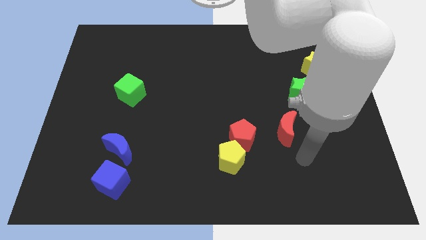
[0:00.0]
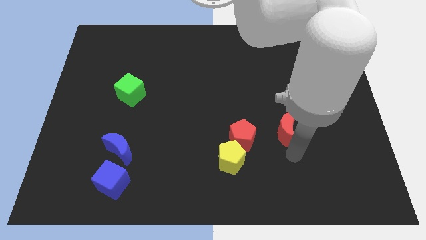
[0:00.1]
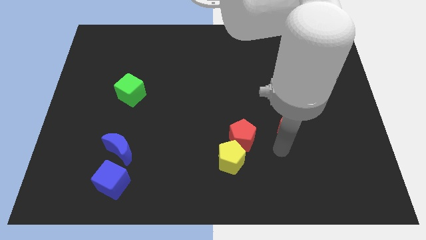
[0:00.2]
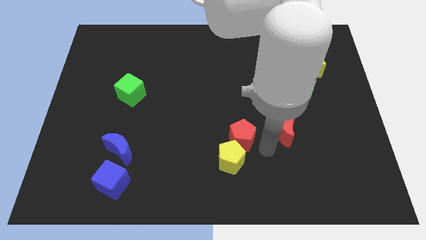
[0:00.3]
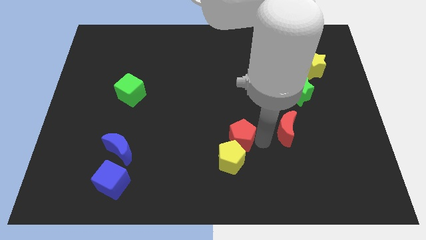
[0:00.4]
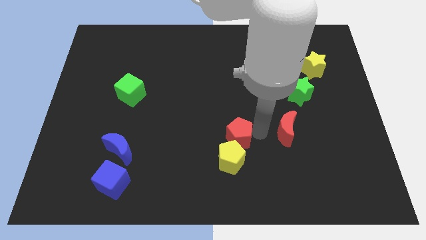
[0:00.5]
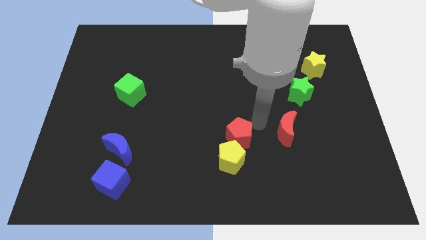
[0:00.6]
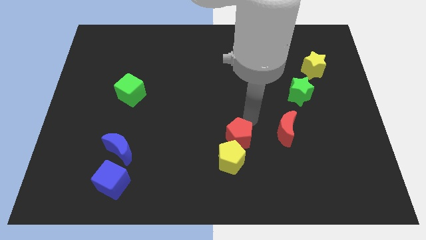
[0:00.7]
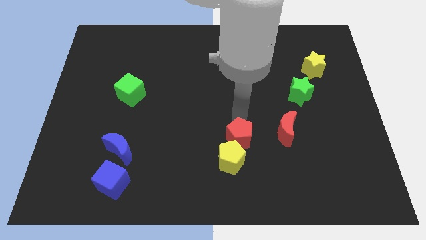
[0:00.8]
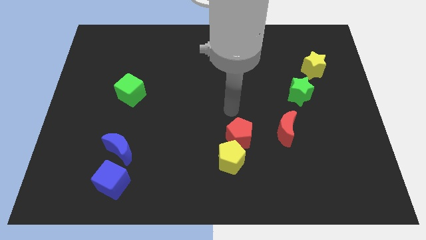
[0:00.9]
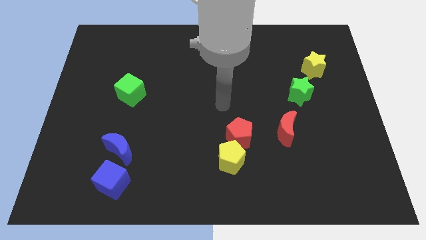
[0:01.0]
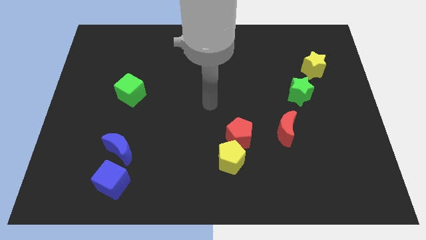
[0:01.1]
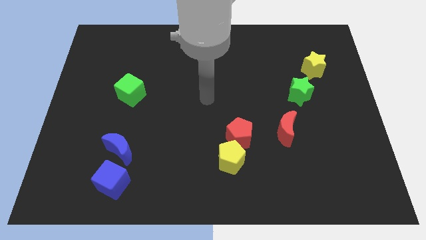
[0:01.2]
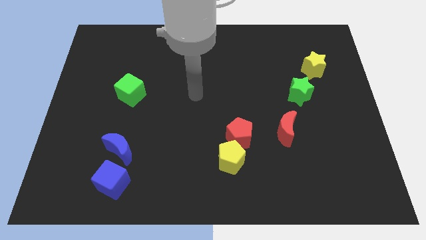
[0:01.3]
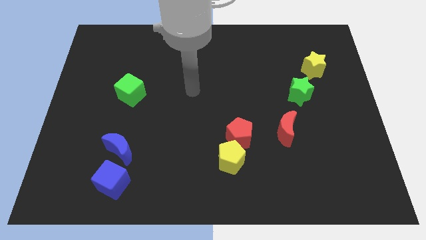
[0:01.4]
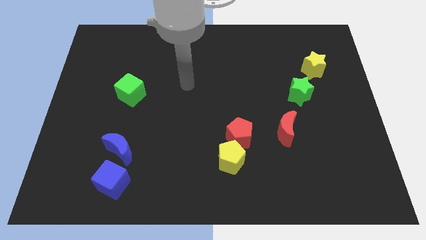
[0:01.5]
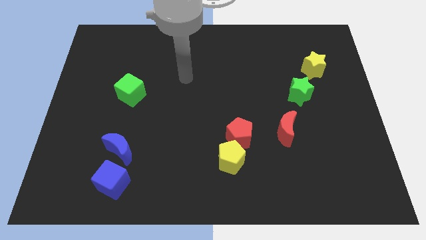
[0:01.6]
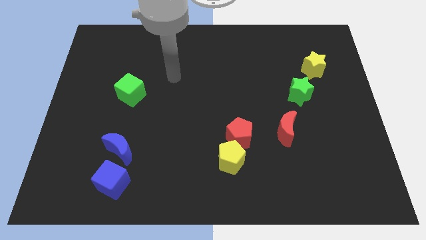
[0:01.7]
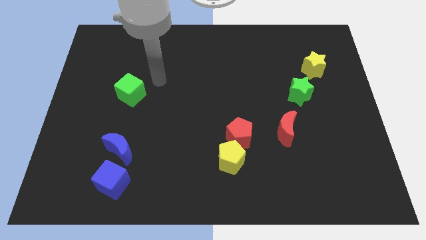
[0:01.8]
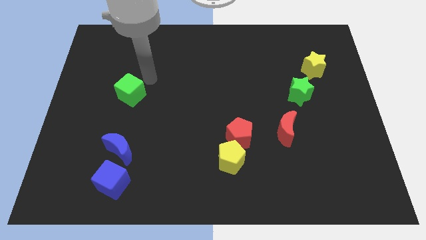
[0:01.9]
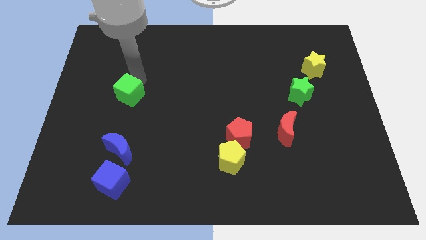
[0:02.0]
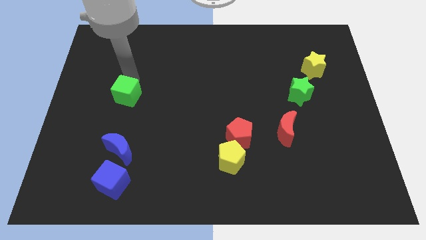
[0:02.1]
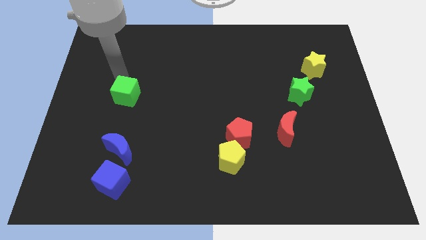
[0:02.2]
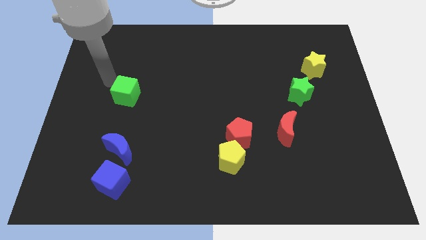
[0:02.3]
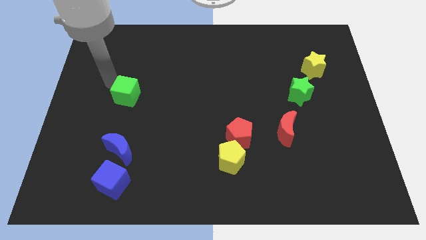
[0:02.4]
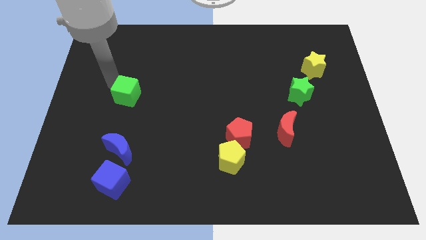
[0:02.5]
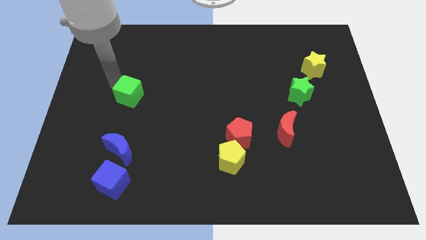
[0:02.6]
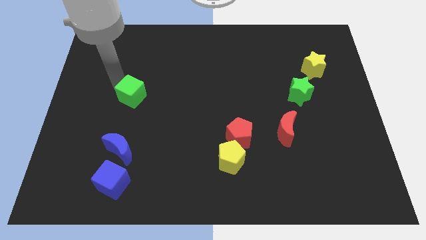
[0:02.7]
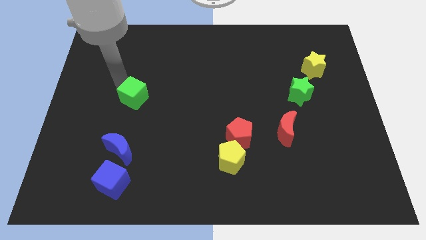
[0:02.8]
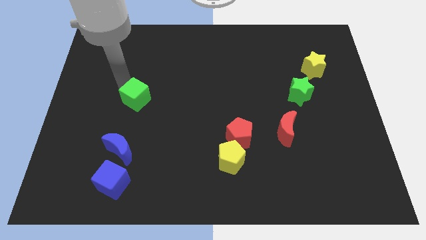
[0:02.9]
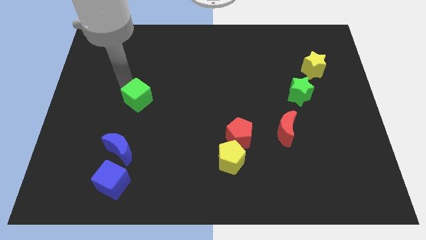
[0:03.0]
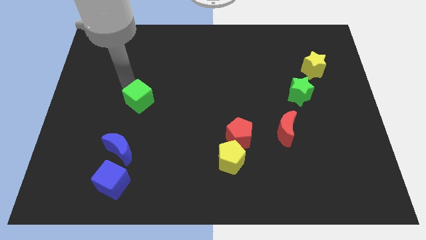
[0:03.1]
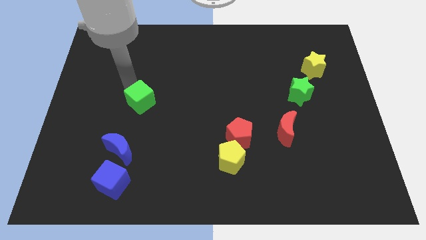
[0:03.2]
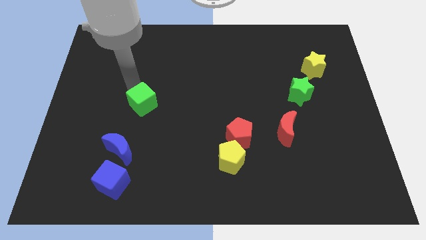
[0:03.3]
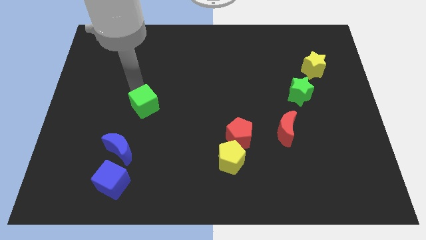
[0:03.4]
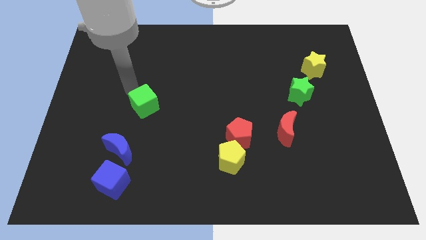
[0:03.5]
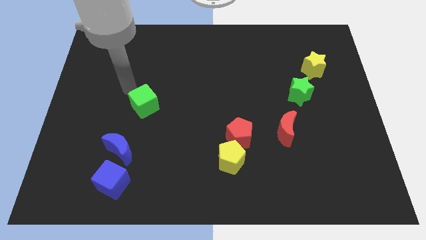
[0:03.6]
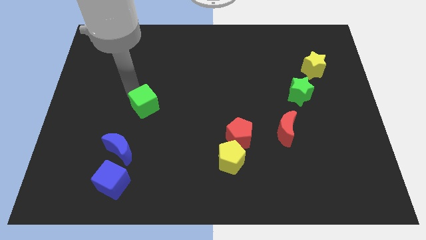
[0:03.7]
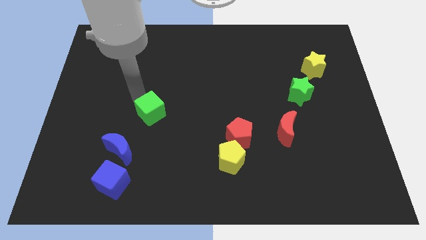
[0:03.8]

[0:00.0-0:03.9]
move the green cube somewhat down and then right

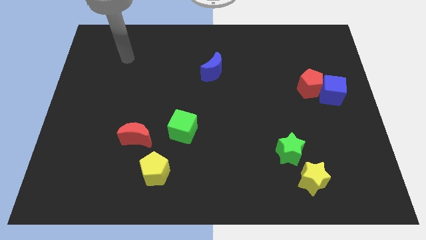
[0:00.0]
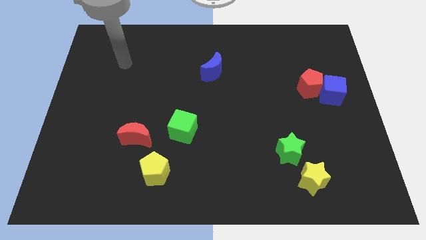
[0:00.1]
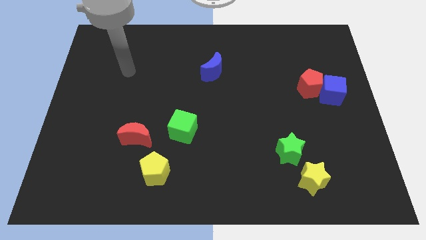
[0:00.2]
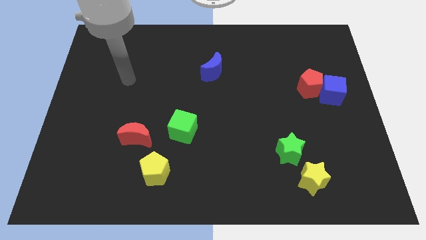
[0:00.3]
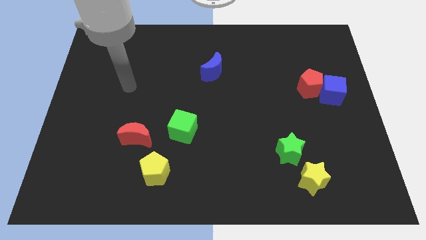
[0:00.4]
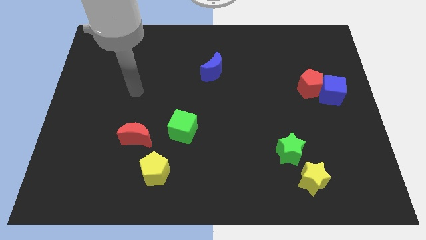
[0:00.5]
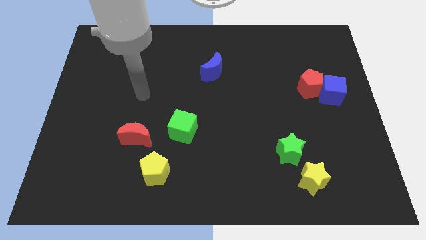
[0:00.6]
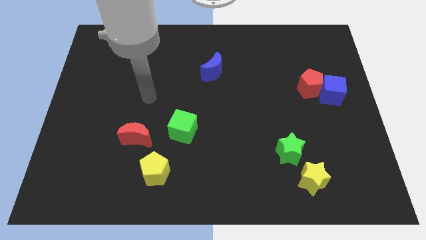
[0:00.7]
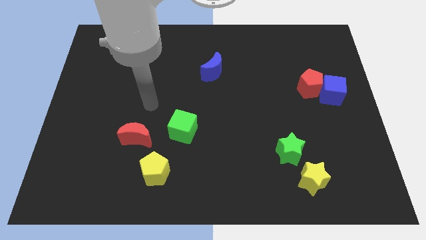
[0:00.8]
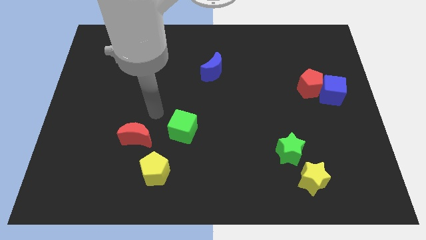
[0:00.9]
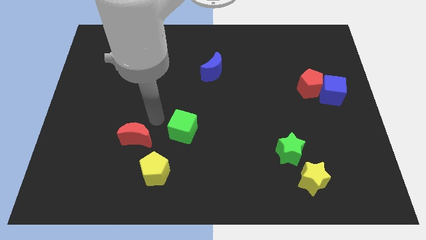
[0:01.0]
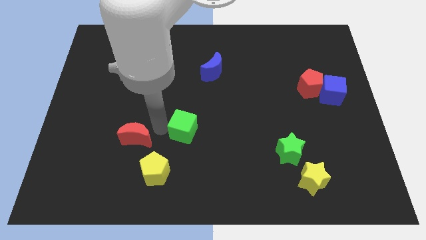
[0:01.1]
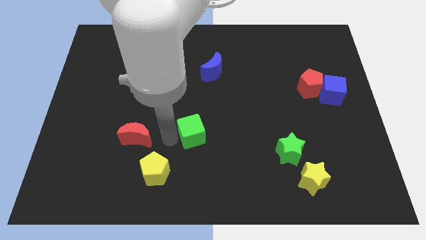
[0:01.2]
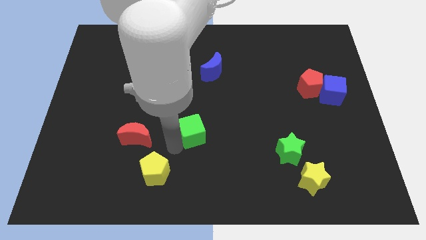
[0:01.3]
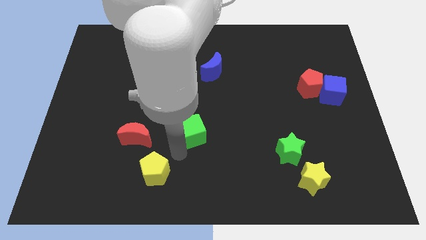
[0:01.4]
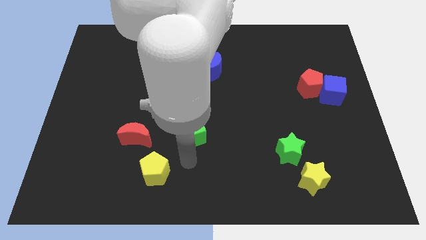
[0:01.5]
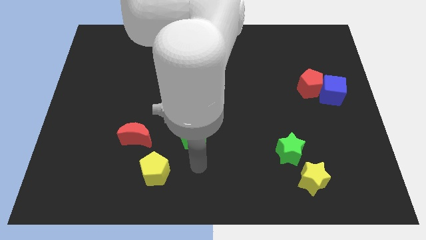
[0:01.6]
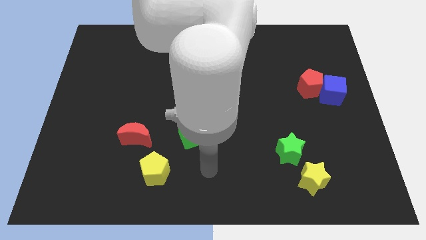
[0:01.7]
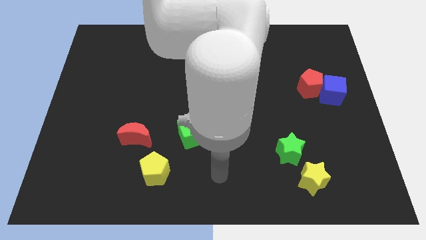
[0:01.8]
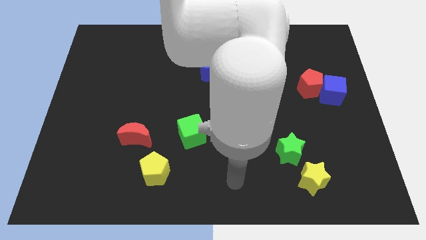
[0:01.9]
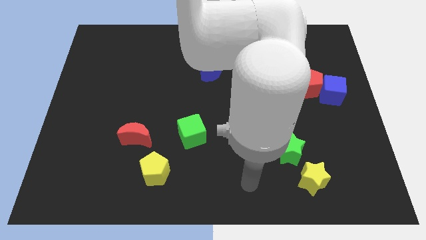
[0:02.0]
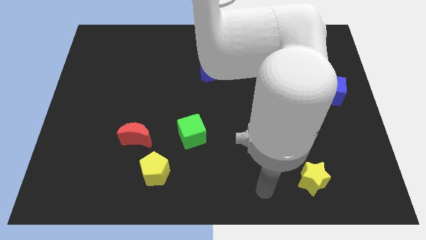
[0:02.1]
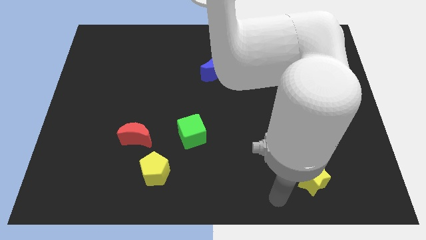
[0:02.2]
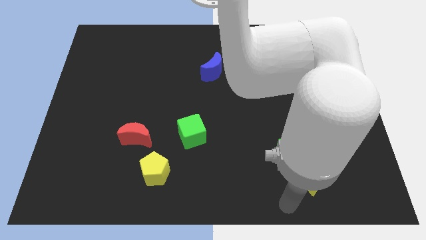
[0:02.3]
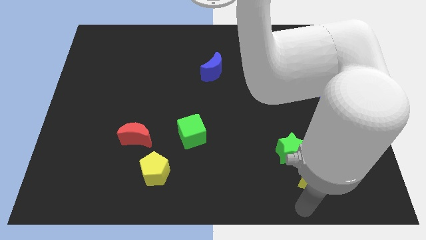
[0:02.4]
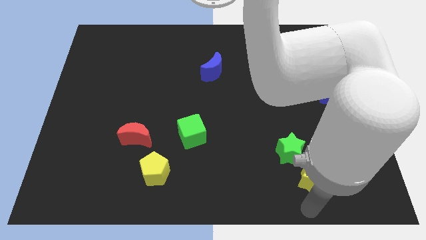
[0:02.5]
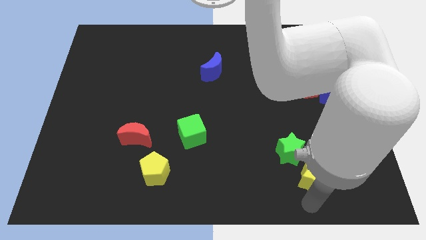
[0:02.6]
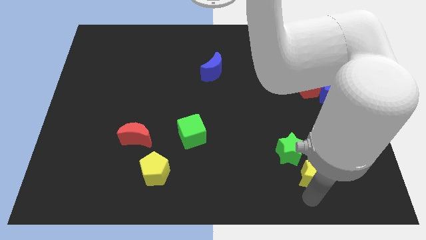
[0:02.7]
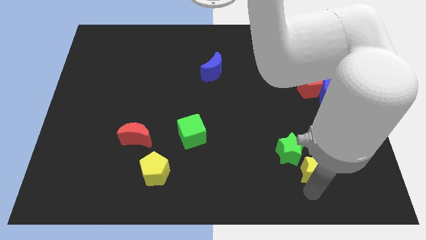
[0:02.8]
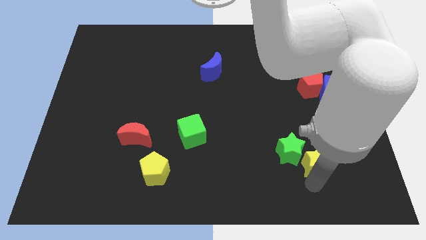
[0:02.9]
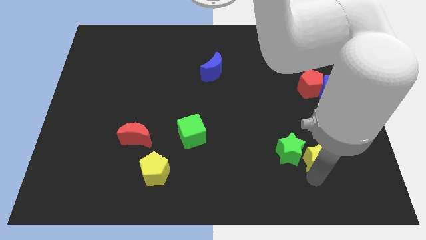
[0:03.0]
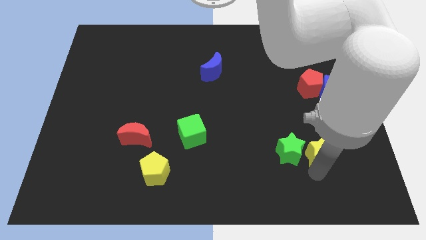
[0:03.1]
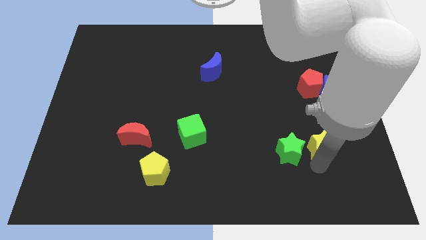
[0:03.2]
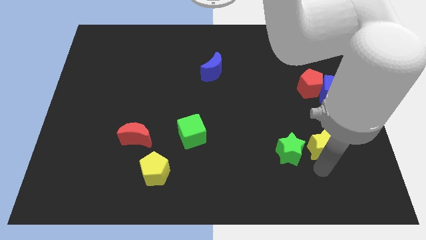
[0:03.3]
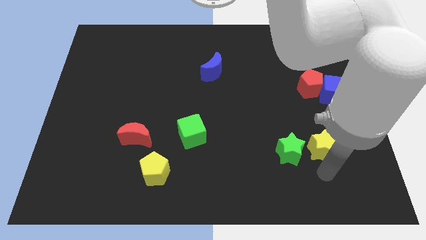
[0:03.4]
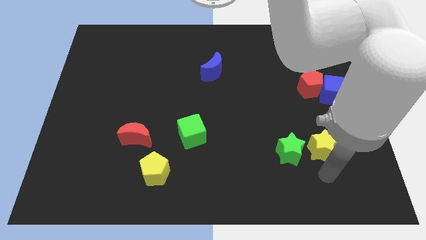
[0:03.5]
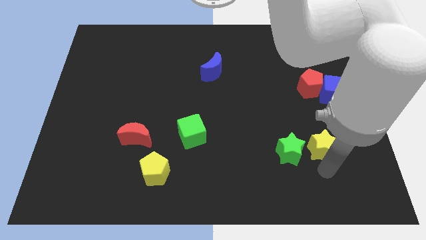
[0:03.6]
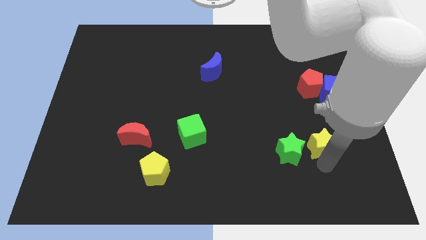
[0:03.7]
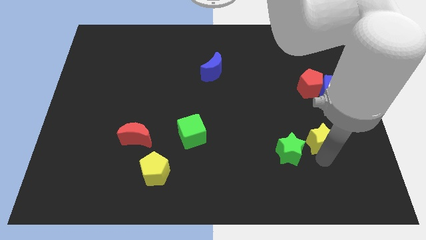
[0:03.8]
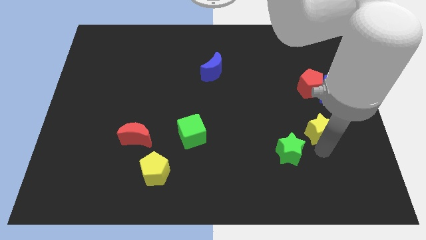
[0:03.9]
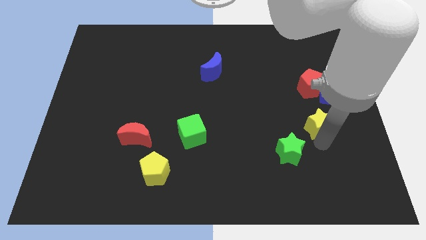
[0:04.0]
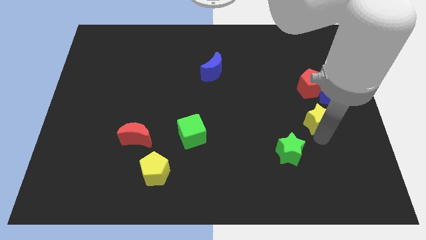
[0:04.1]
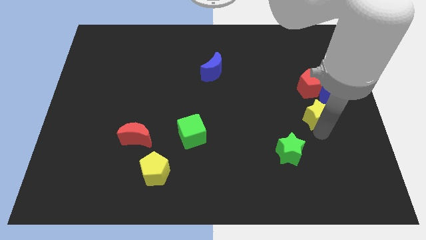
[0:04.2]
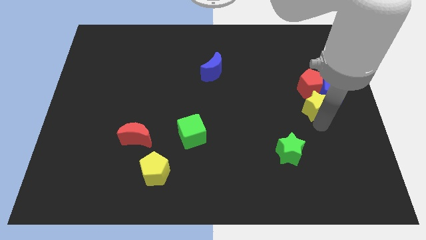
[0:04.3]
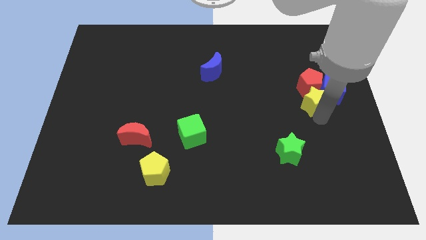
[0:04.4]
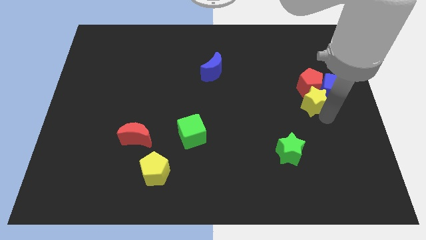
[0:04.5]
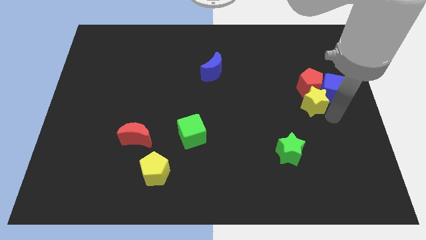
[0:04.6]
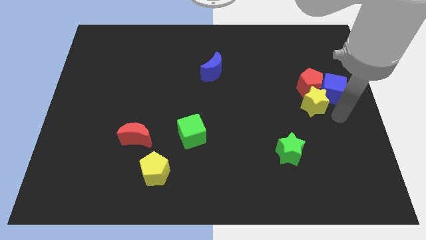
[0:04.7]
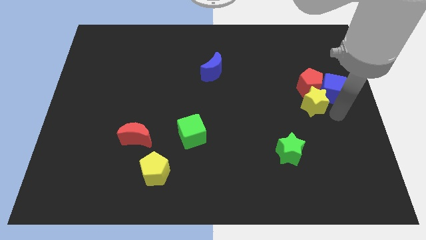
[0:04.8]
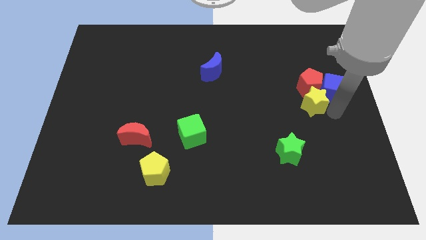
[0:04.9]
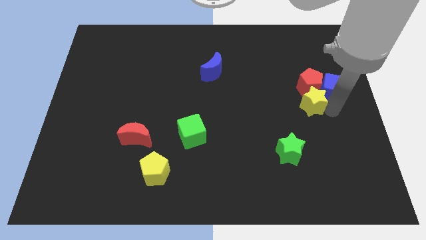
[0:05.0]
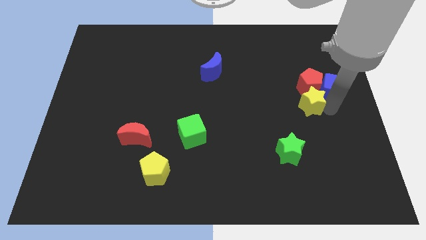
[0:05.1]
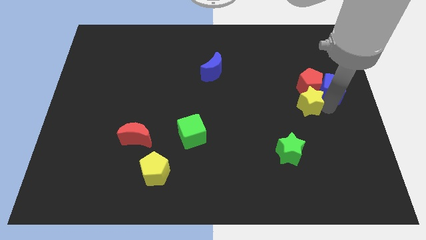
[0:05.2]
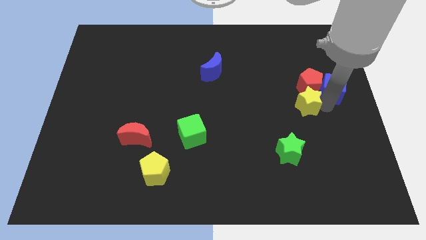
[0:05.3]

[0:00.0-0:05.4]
push the yellow star upwards
